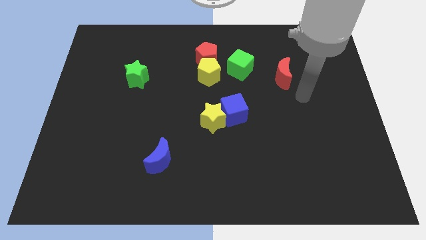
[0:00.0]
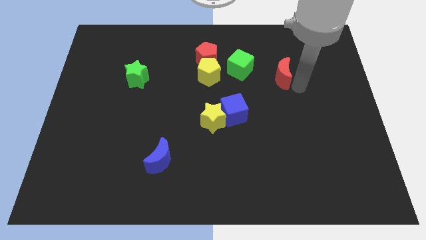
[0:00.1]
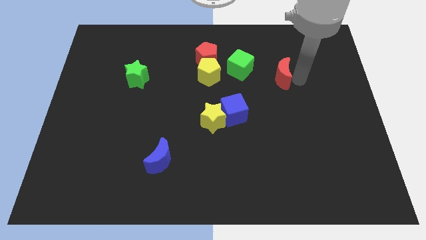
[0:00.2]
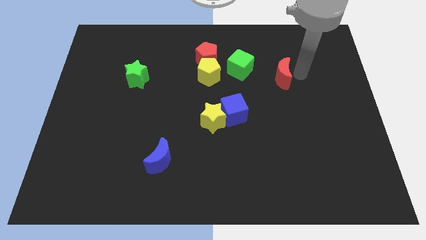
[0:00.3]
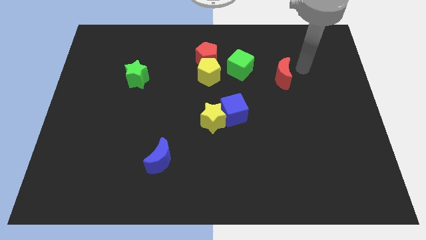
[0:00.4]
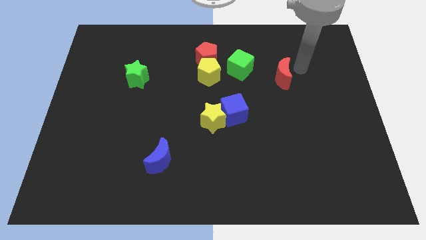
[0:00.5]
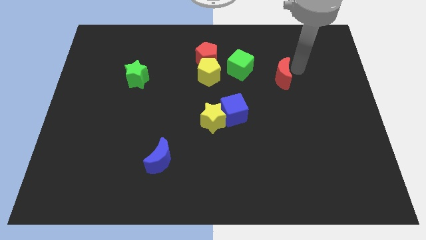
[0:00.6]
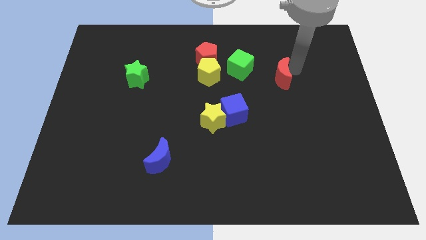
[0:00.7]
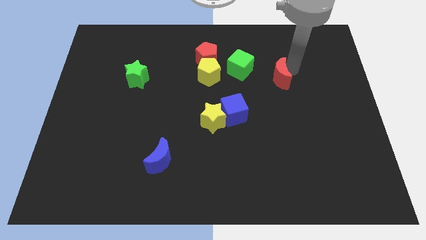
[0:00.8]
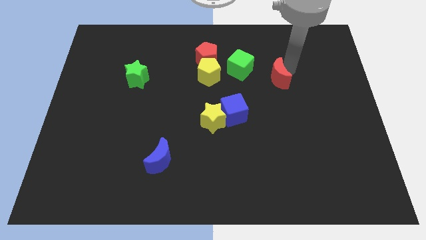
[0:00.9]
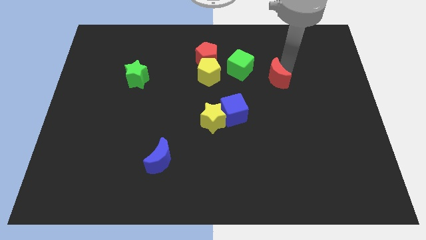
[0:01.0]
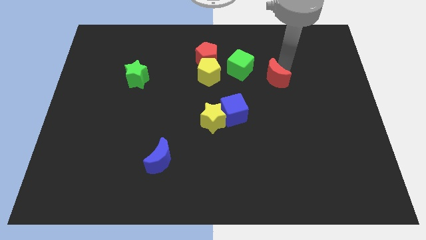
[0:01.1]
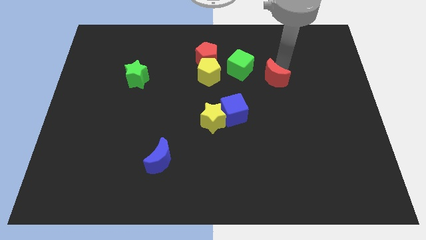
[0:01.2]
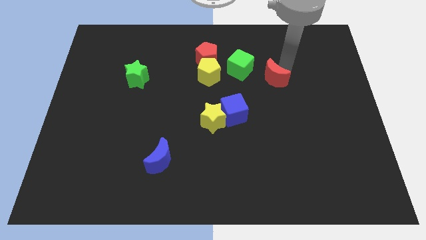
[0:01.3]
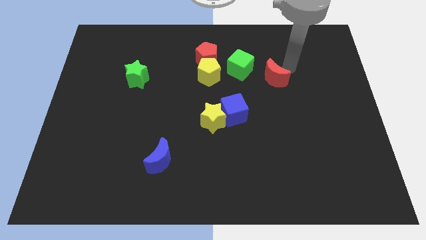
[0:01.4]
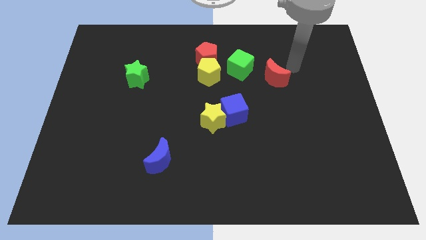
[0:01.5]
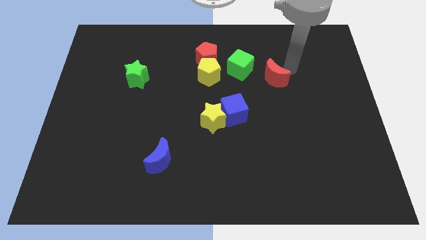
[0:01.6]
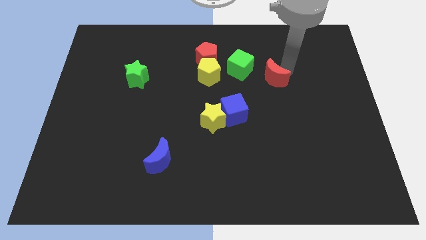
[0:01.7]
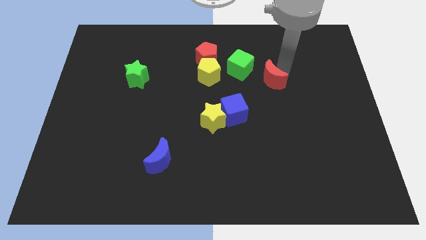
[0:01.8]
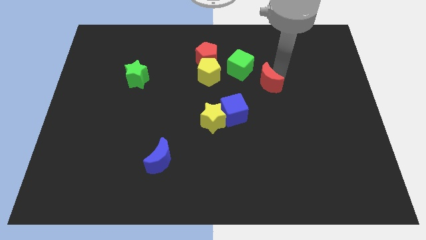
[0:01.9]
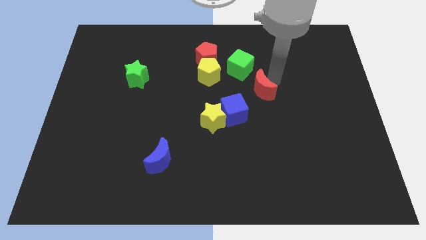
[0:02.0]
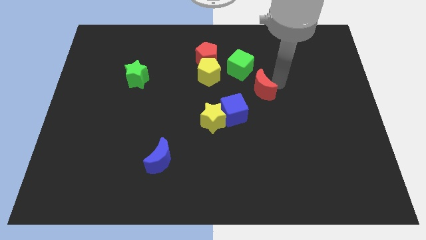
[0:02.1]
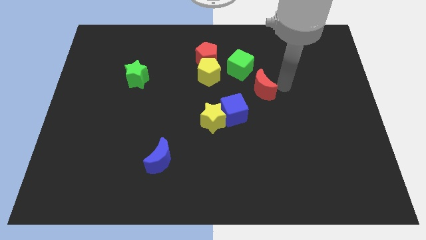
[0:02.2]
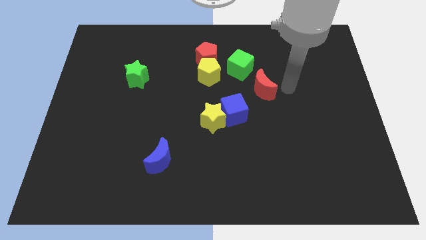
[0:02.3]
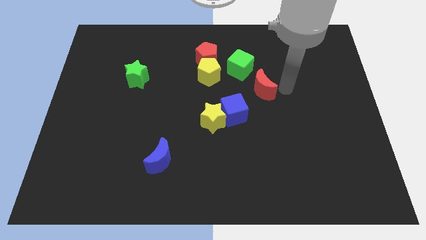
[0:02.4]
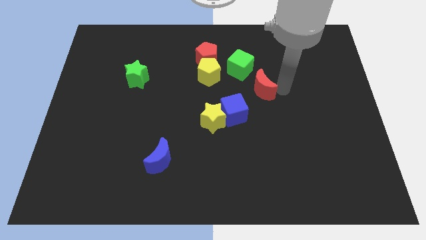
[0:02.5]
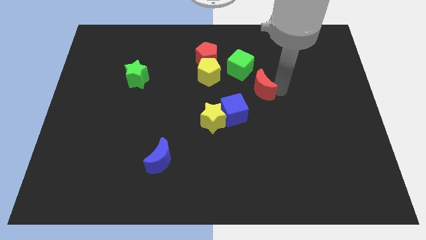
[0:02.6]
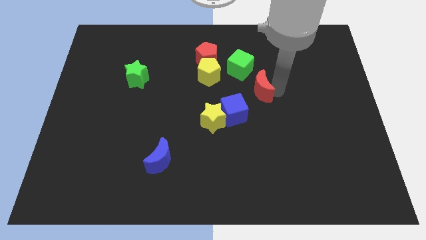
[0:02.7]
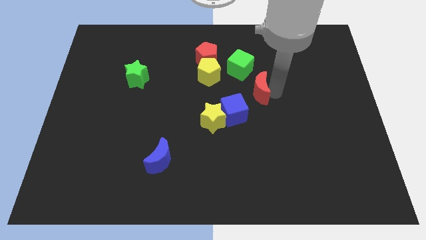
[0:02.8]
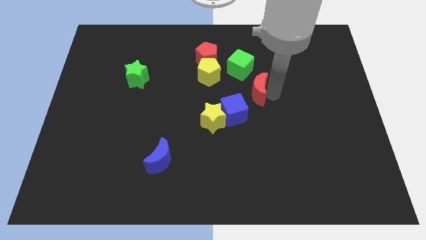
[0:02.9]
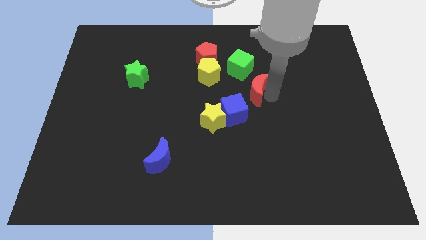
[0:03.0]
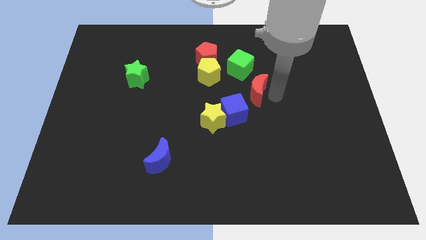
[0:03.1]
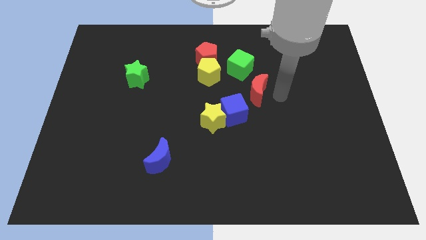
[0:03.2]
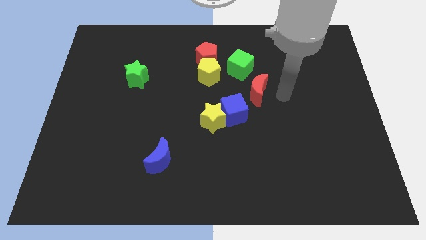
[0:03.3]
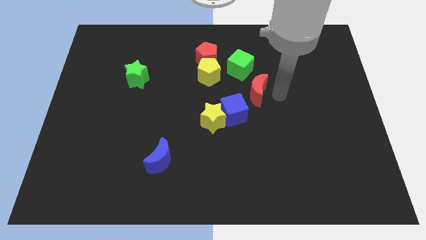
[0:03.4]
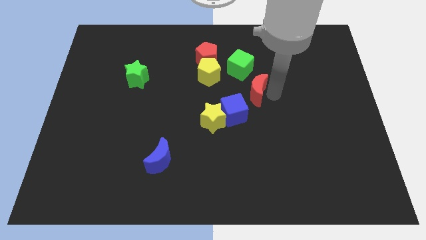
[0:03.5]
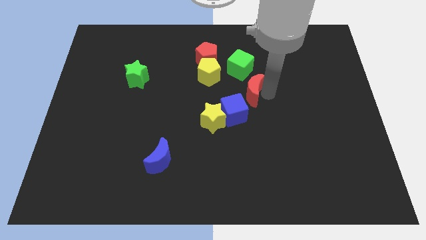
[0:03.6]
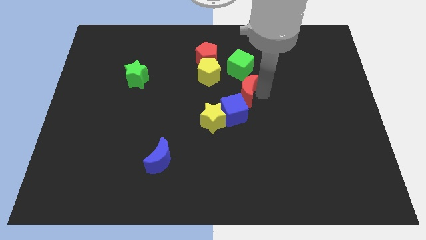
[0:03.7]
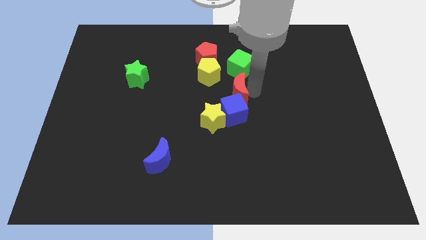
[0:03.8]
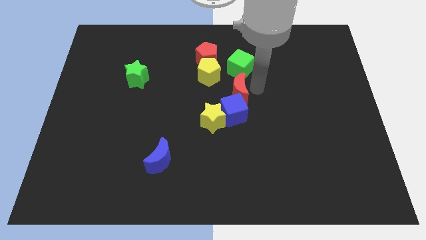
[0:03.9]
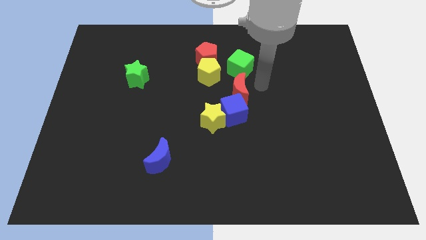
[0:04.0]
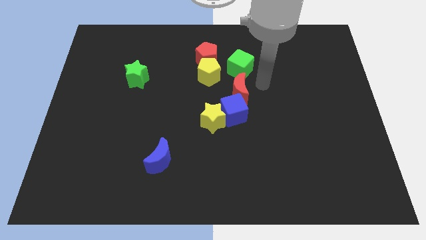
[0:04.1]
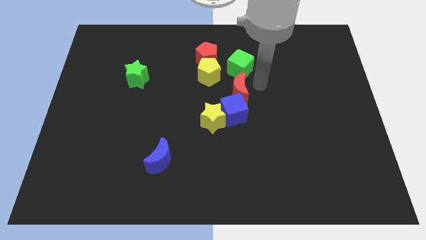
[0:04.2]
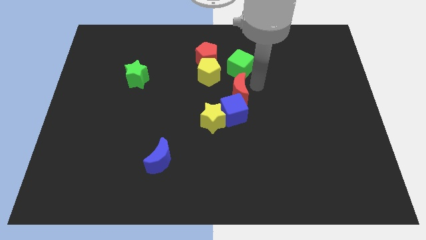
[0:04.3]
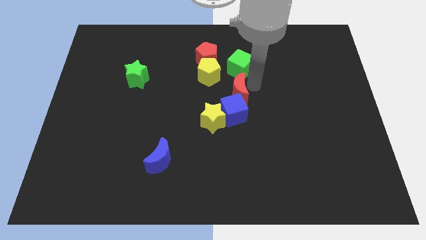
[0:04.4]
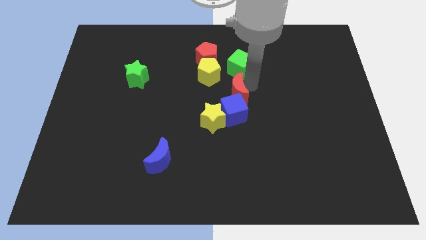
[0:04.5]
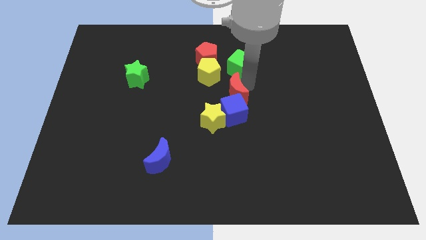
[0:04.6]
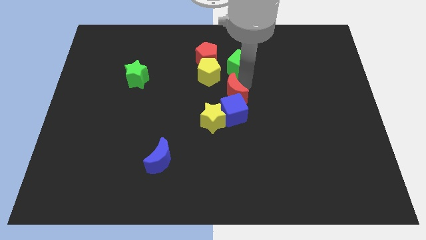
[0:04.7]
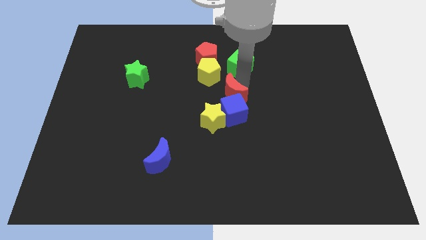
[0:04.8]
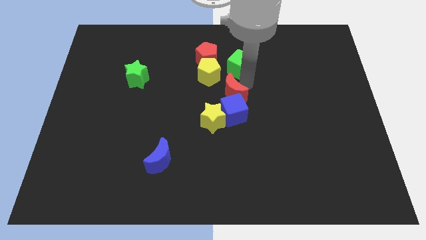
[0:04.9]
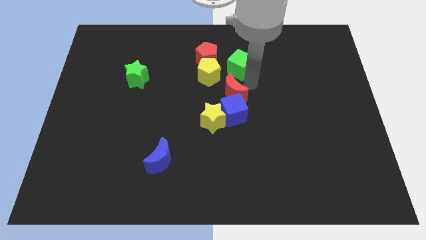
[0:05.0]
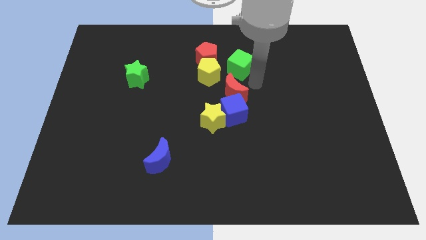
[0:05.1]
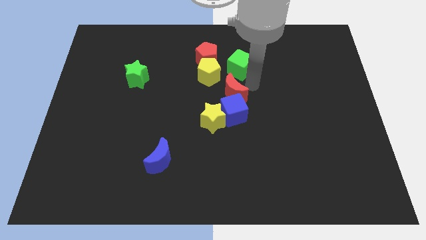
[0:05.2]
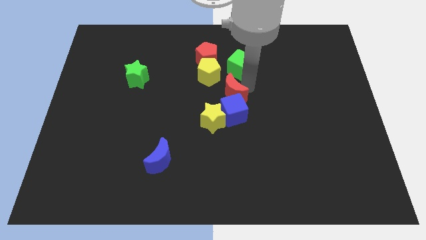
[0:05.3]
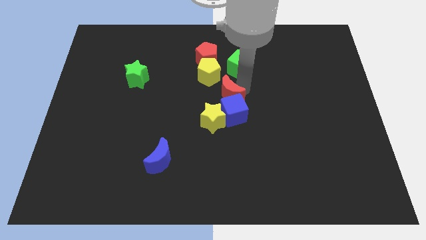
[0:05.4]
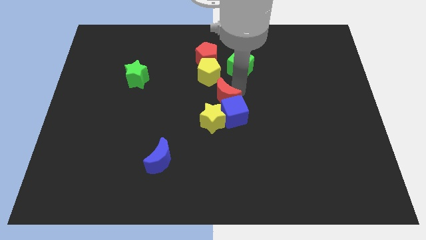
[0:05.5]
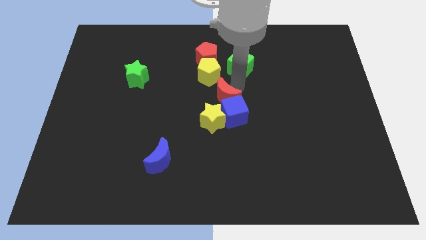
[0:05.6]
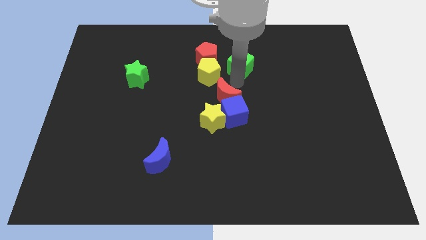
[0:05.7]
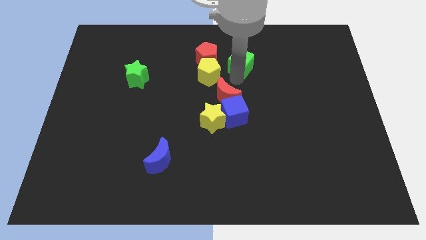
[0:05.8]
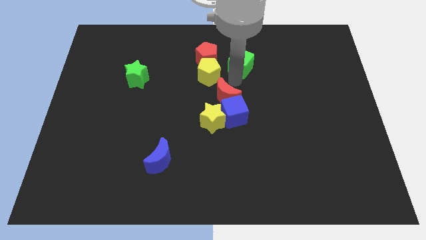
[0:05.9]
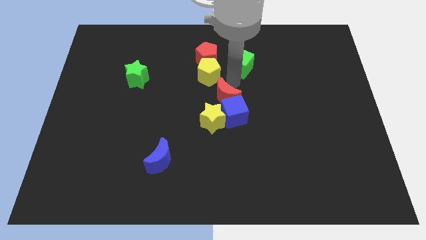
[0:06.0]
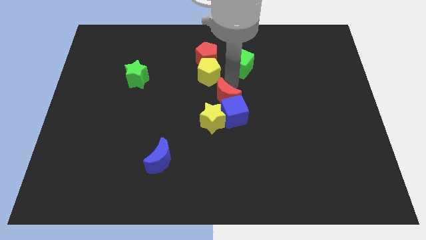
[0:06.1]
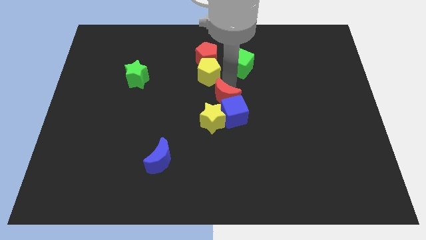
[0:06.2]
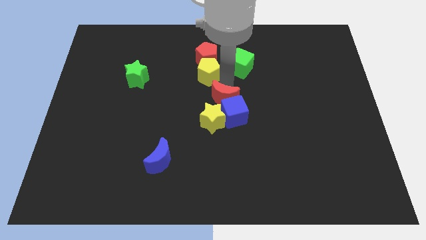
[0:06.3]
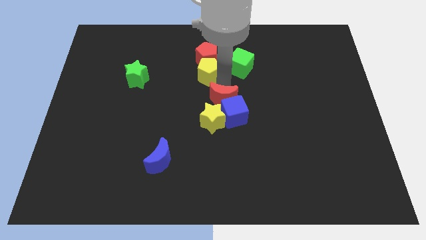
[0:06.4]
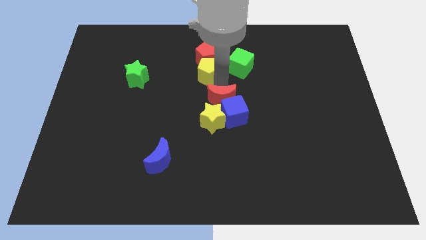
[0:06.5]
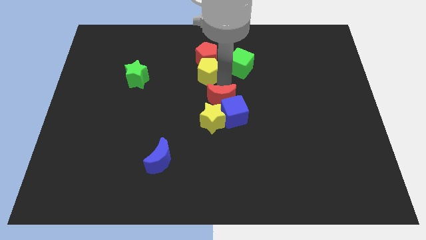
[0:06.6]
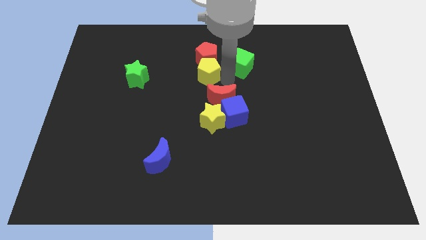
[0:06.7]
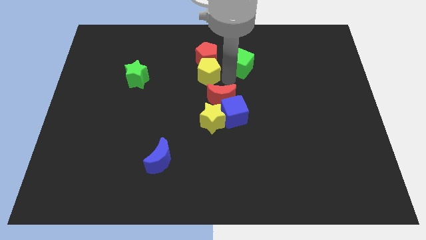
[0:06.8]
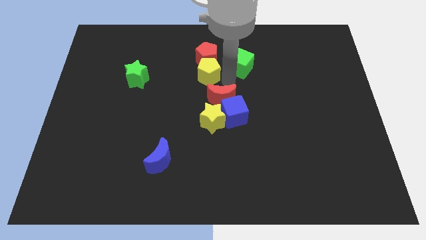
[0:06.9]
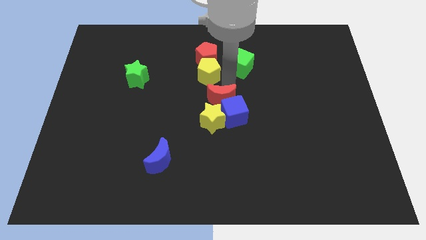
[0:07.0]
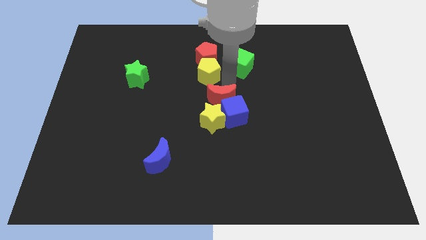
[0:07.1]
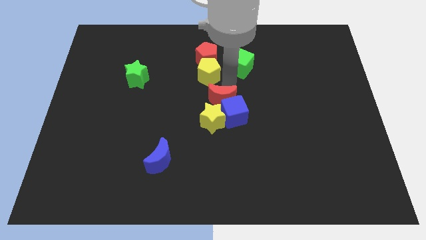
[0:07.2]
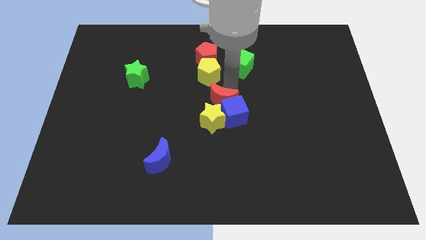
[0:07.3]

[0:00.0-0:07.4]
move the red moon next to the yellow star
